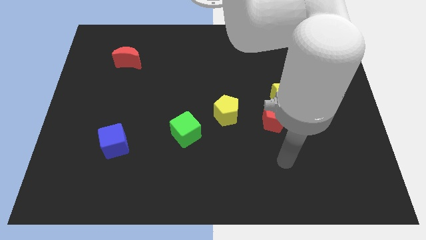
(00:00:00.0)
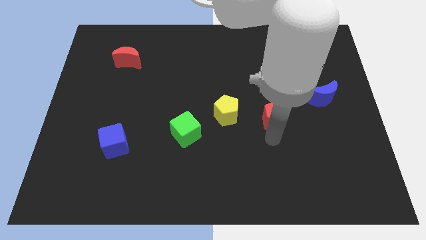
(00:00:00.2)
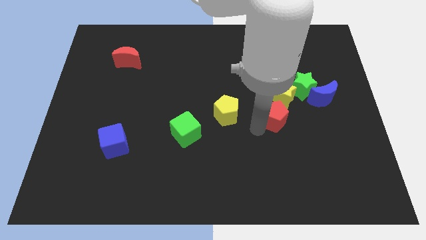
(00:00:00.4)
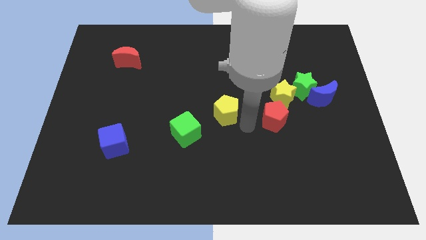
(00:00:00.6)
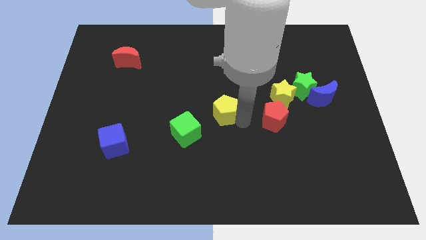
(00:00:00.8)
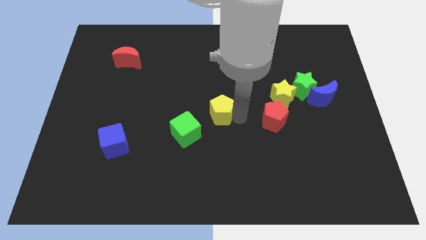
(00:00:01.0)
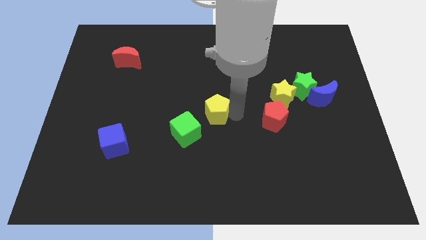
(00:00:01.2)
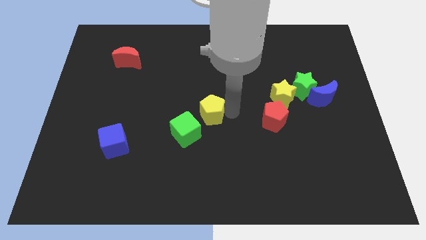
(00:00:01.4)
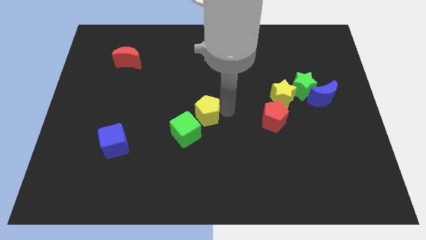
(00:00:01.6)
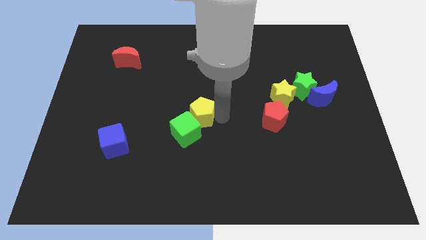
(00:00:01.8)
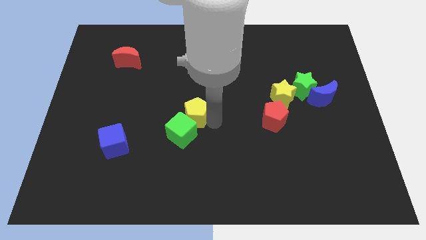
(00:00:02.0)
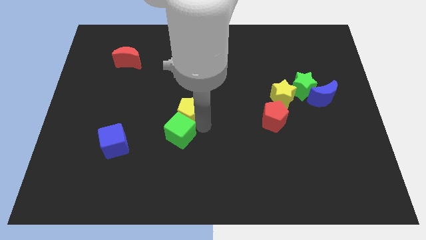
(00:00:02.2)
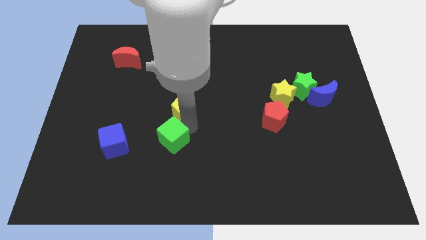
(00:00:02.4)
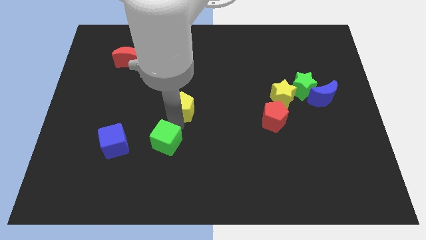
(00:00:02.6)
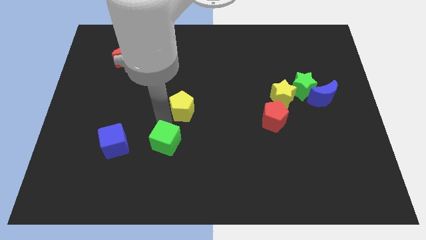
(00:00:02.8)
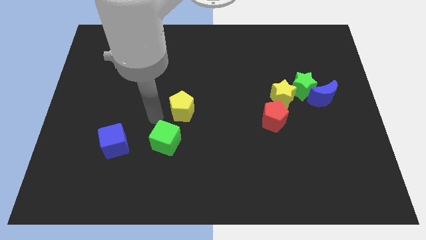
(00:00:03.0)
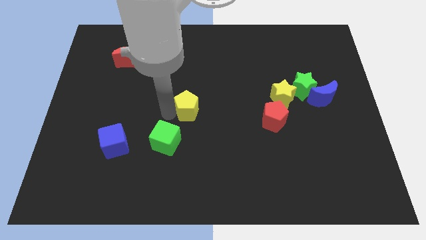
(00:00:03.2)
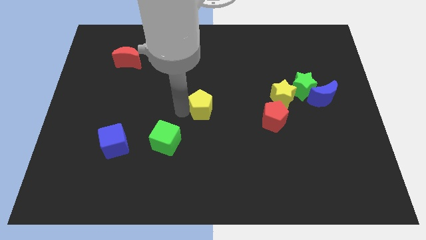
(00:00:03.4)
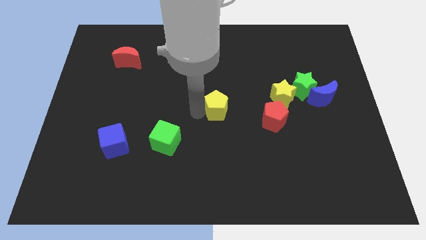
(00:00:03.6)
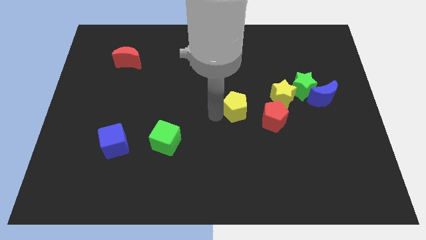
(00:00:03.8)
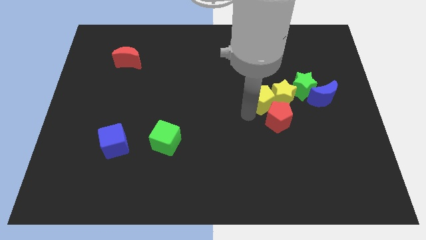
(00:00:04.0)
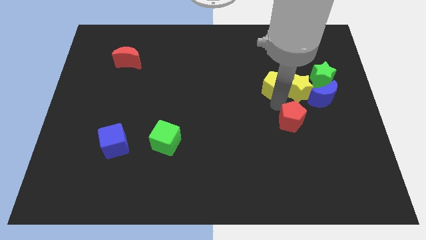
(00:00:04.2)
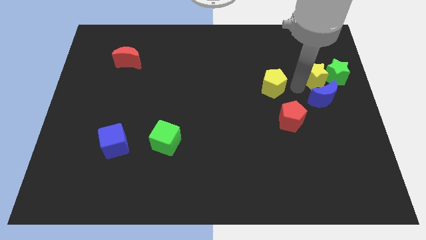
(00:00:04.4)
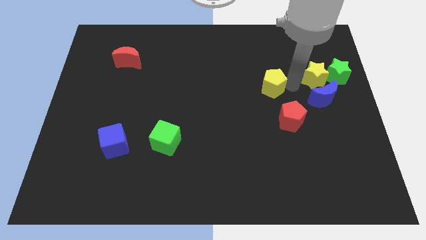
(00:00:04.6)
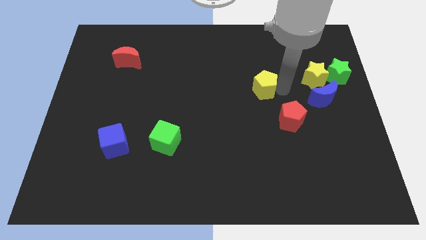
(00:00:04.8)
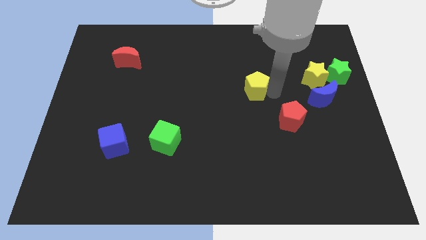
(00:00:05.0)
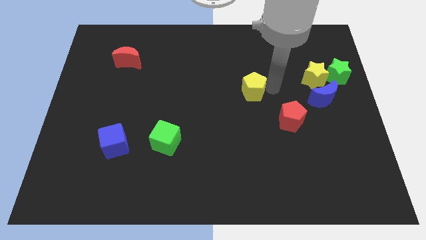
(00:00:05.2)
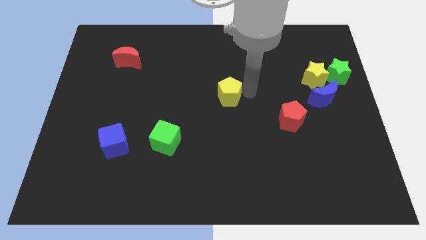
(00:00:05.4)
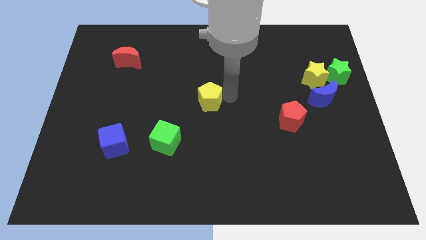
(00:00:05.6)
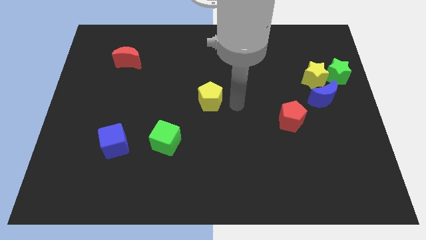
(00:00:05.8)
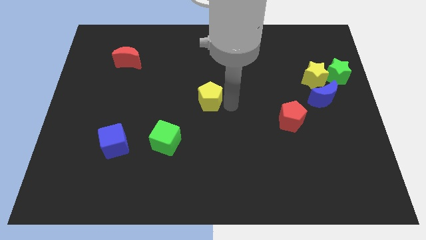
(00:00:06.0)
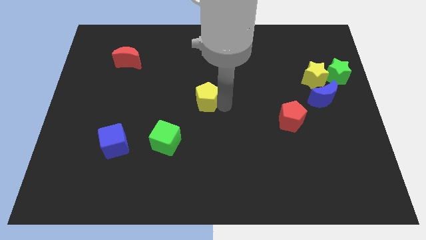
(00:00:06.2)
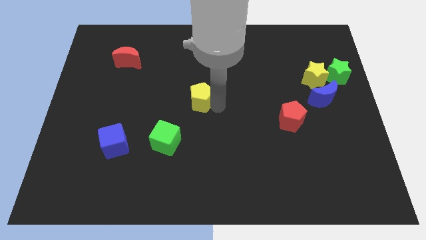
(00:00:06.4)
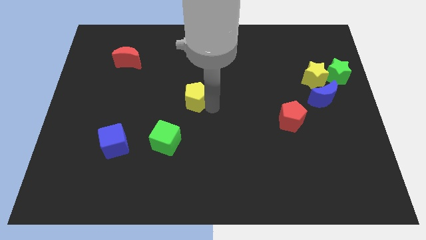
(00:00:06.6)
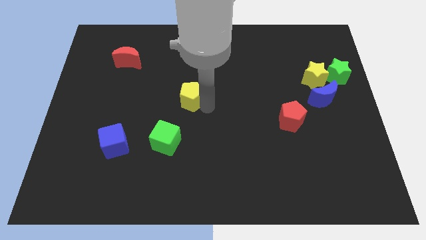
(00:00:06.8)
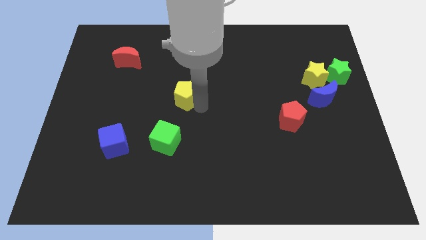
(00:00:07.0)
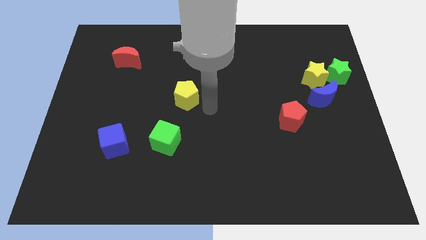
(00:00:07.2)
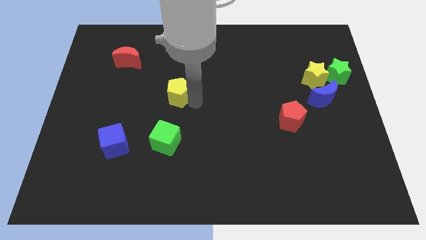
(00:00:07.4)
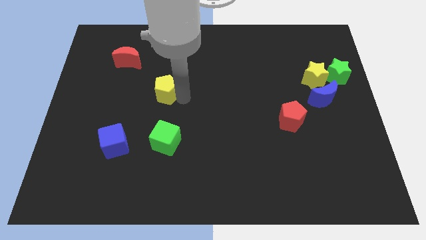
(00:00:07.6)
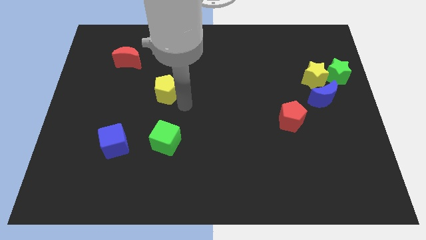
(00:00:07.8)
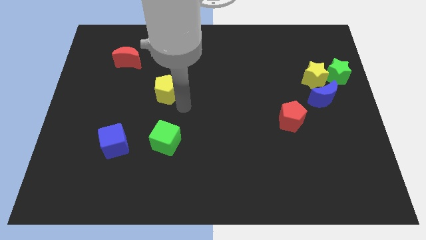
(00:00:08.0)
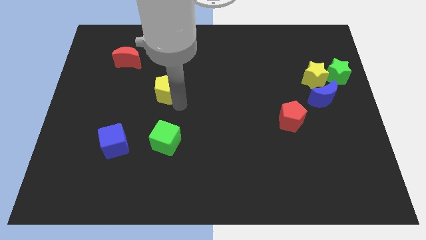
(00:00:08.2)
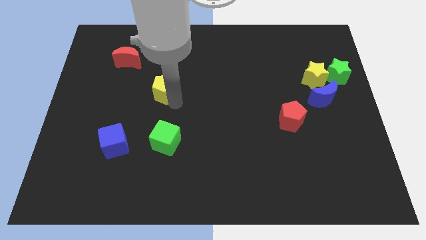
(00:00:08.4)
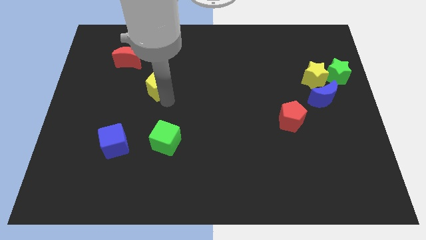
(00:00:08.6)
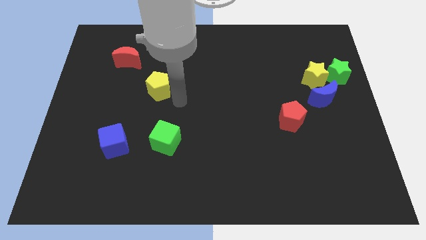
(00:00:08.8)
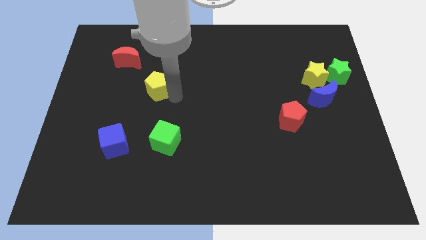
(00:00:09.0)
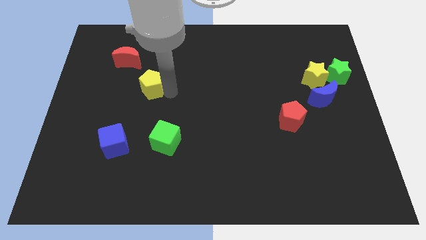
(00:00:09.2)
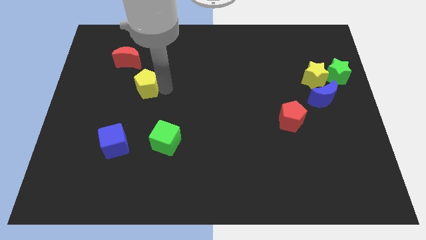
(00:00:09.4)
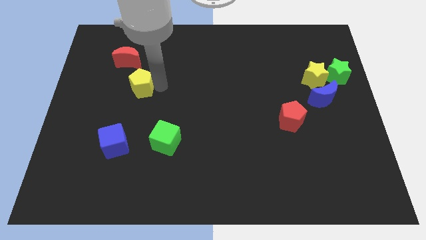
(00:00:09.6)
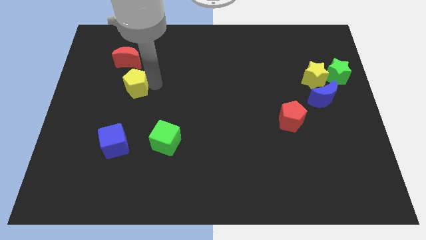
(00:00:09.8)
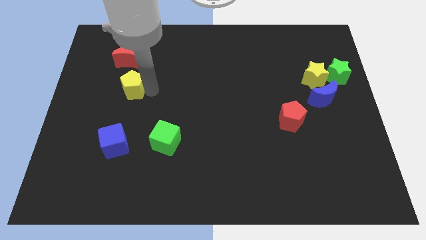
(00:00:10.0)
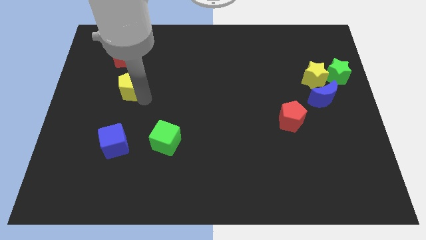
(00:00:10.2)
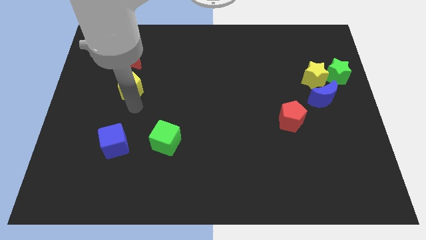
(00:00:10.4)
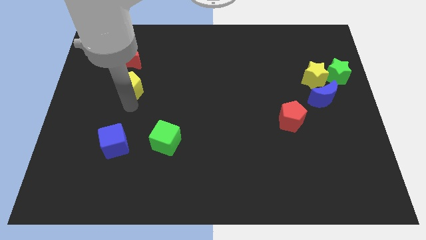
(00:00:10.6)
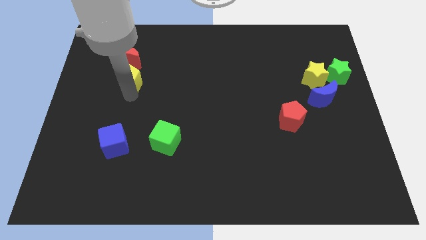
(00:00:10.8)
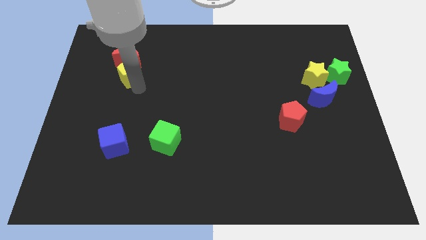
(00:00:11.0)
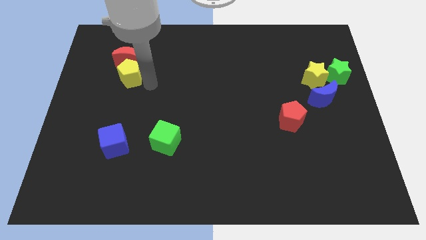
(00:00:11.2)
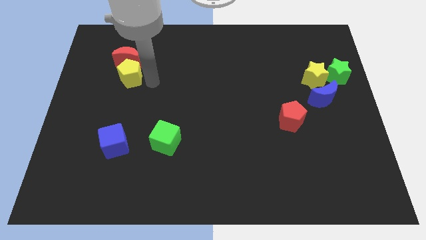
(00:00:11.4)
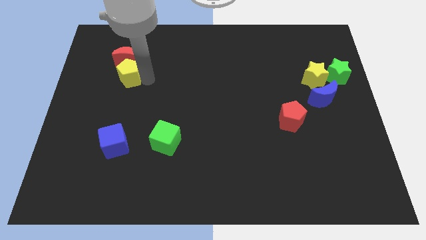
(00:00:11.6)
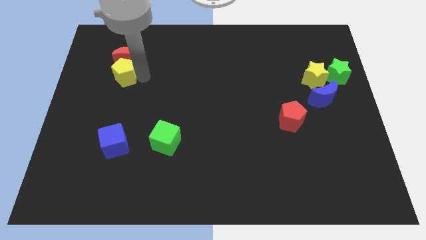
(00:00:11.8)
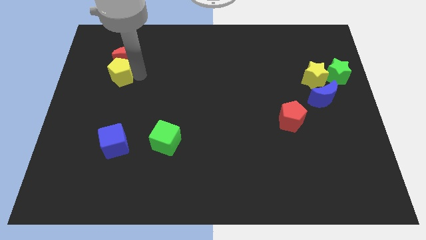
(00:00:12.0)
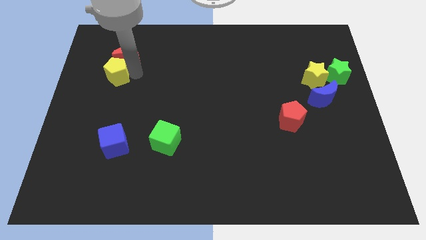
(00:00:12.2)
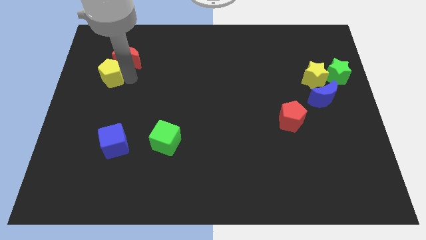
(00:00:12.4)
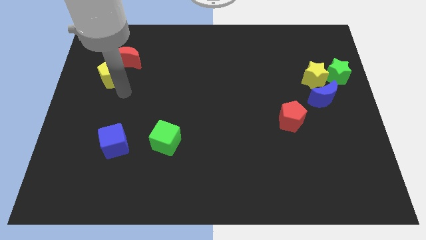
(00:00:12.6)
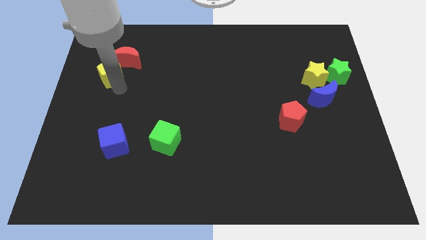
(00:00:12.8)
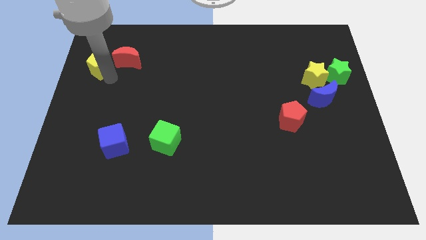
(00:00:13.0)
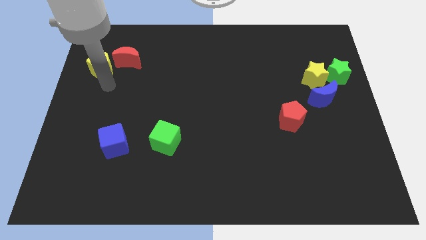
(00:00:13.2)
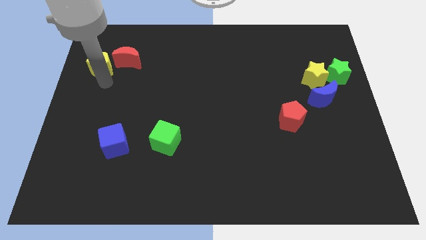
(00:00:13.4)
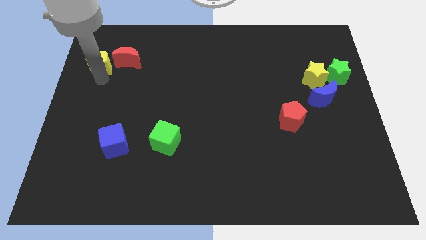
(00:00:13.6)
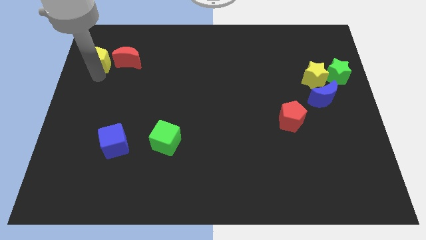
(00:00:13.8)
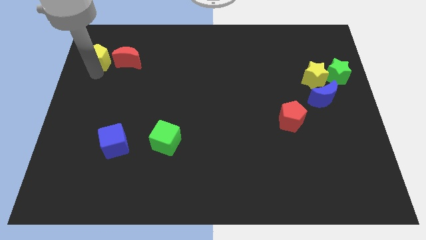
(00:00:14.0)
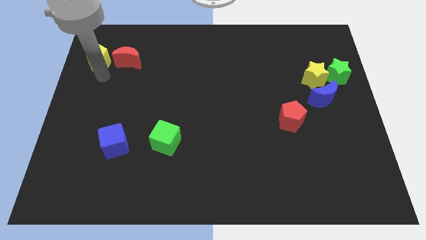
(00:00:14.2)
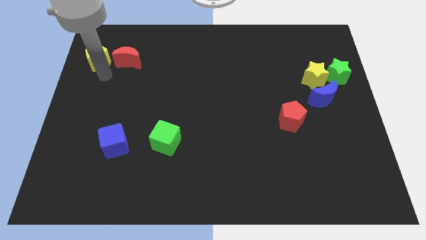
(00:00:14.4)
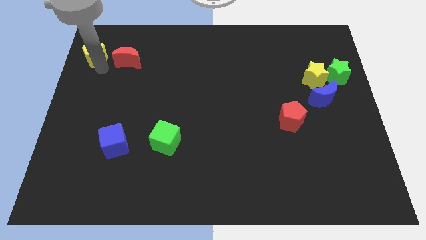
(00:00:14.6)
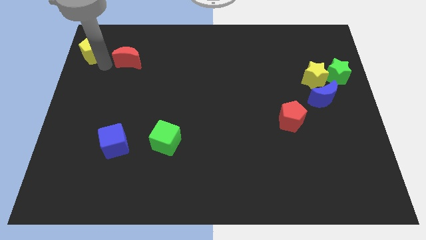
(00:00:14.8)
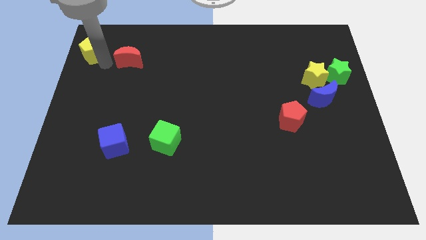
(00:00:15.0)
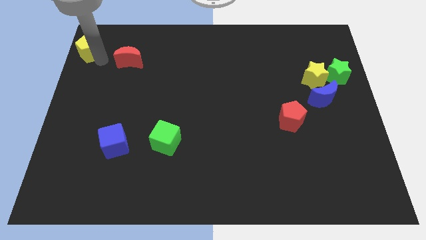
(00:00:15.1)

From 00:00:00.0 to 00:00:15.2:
move the yellow pentagon to the top left corner
